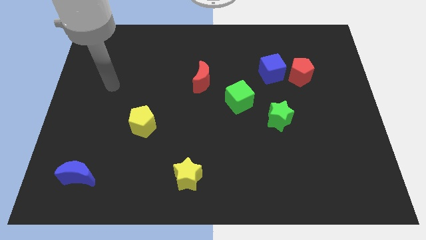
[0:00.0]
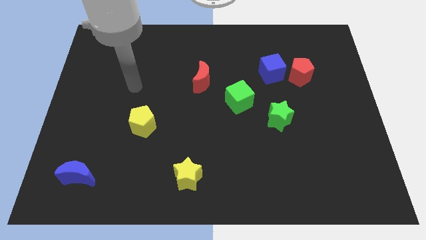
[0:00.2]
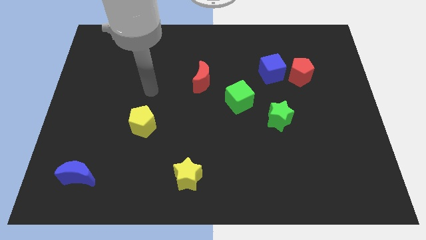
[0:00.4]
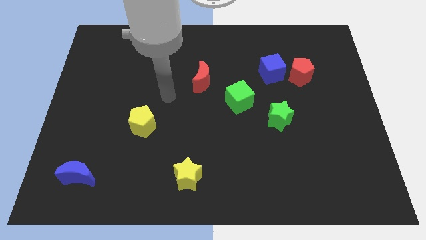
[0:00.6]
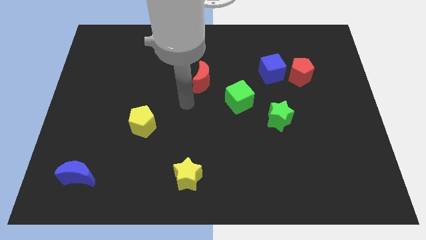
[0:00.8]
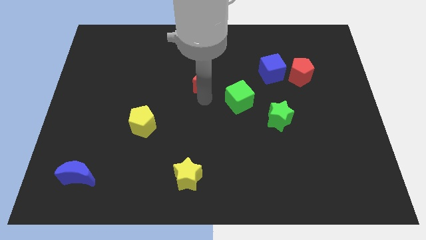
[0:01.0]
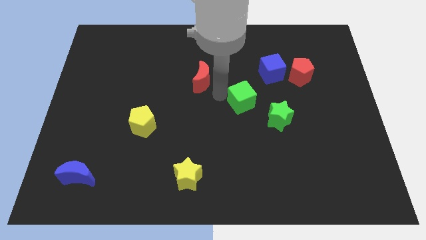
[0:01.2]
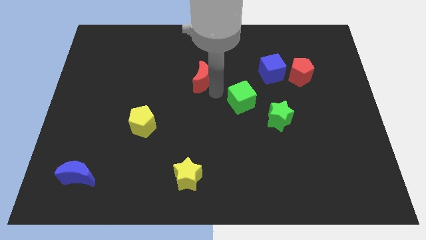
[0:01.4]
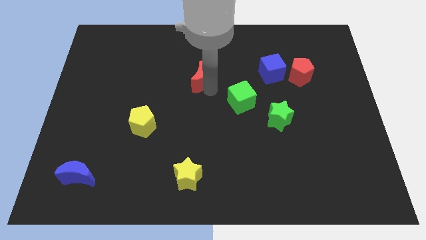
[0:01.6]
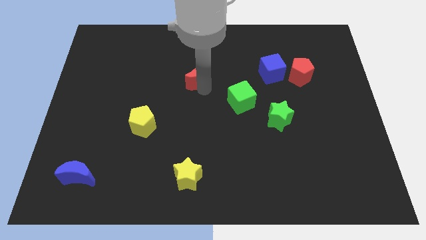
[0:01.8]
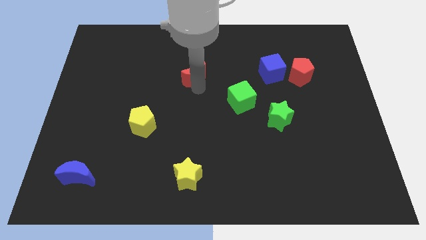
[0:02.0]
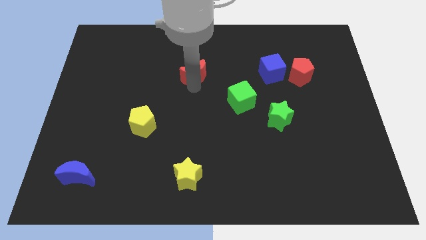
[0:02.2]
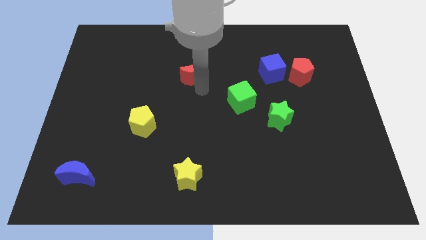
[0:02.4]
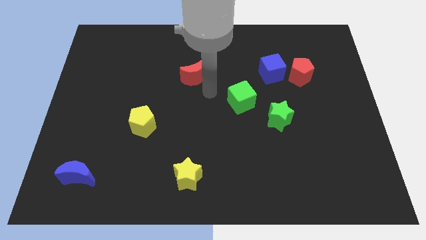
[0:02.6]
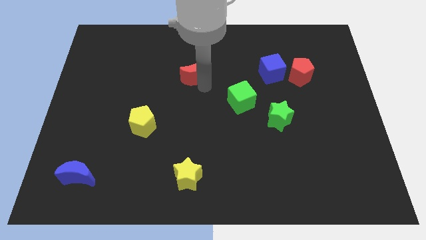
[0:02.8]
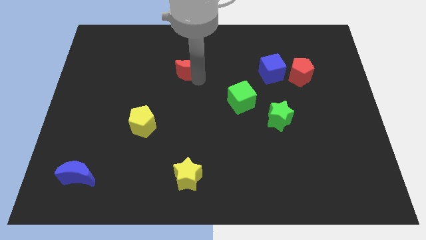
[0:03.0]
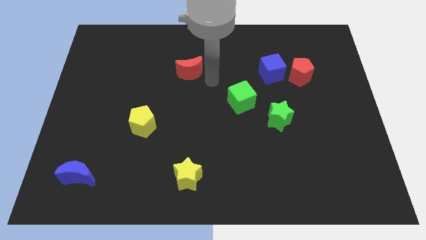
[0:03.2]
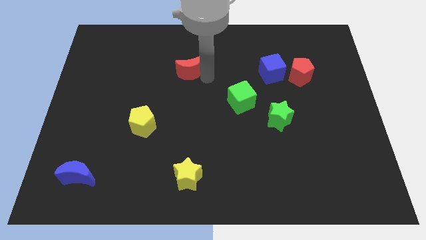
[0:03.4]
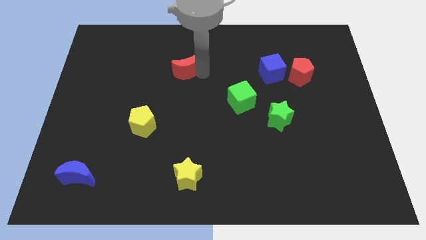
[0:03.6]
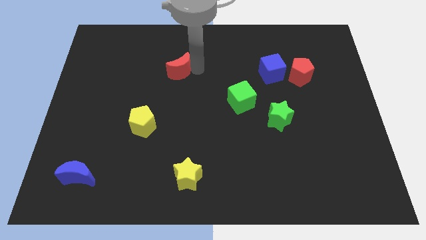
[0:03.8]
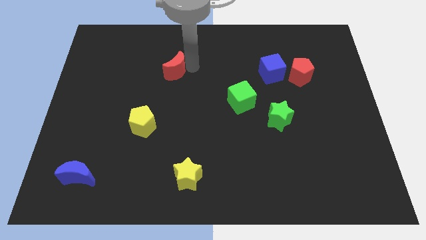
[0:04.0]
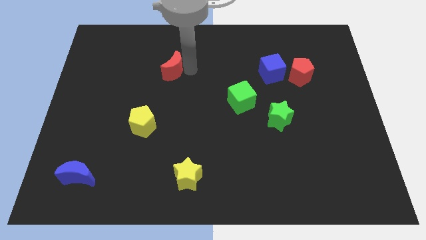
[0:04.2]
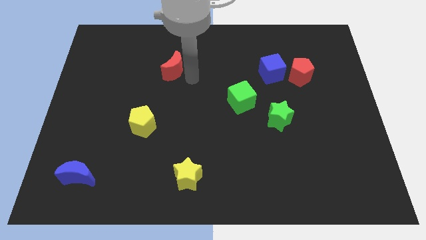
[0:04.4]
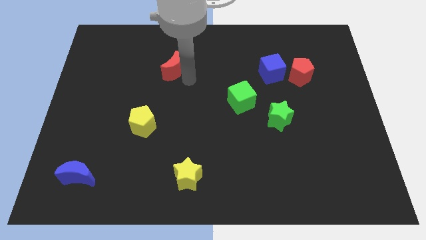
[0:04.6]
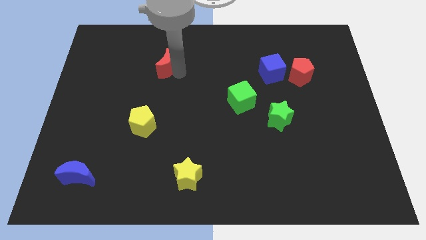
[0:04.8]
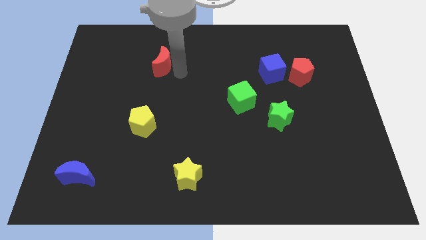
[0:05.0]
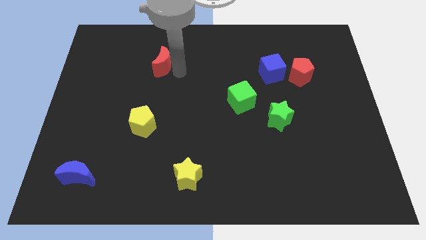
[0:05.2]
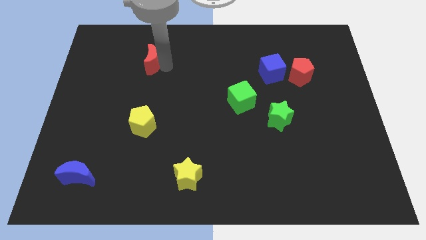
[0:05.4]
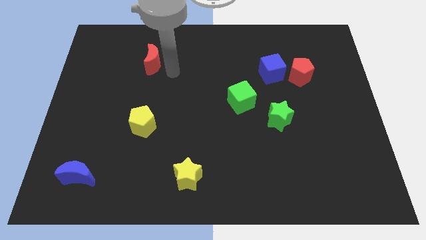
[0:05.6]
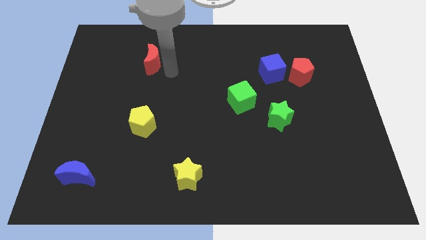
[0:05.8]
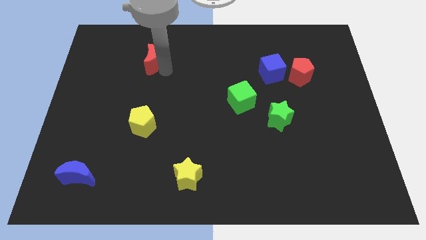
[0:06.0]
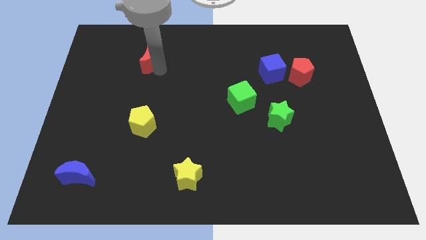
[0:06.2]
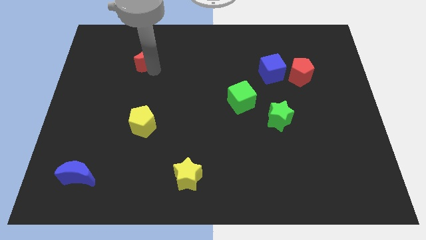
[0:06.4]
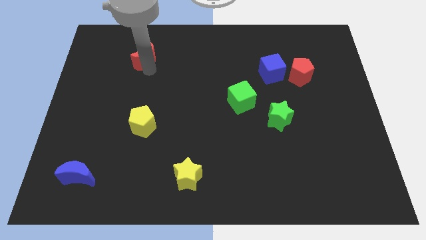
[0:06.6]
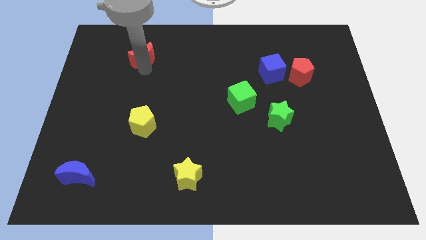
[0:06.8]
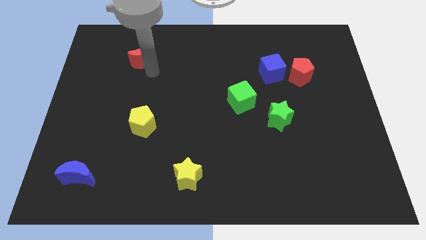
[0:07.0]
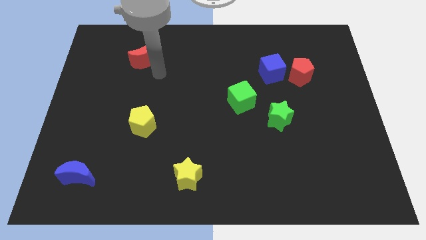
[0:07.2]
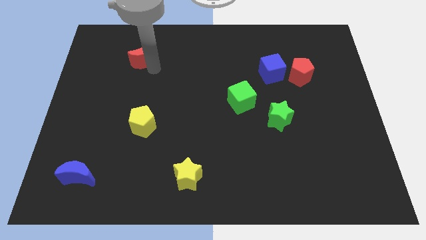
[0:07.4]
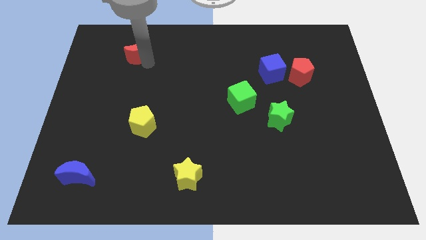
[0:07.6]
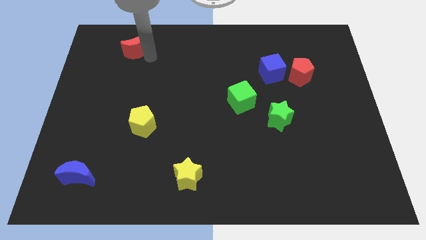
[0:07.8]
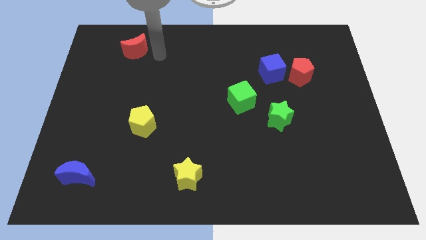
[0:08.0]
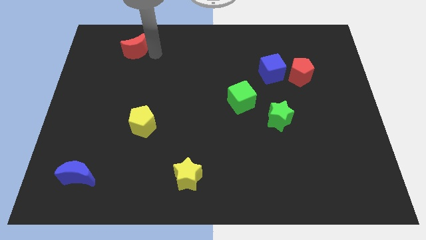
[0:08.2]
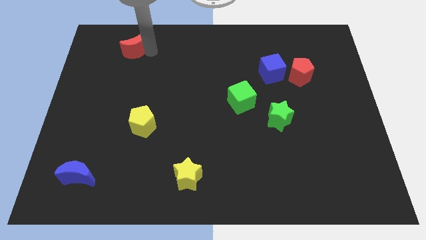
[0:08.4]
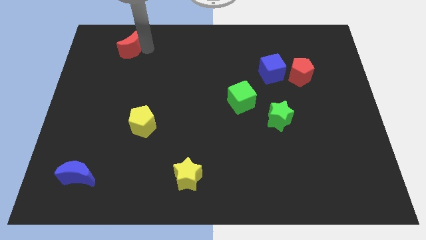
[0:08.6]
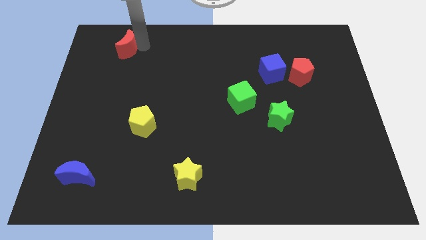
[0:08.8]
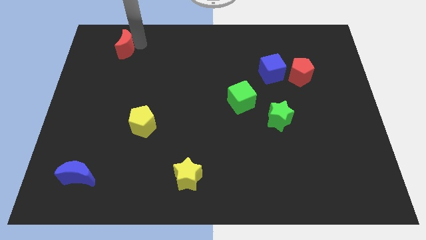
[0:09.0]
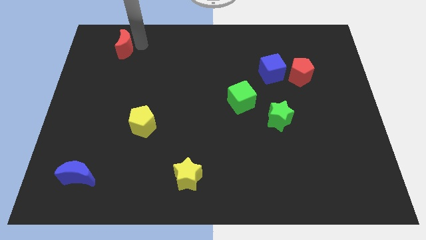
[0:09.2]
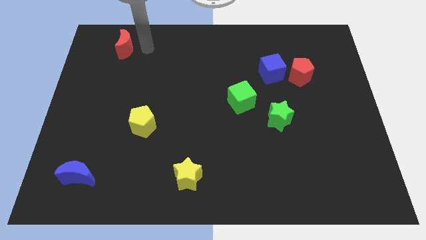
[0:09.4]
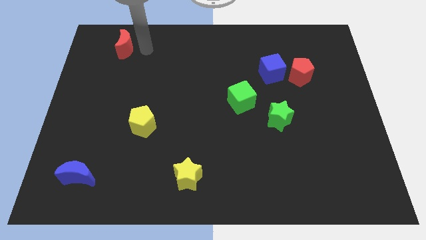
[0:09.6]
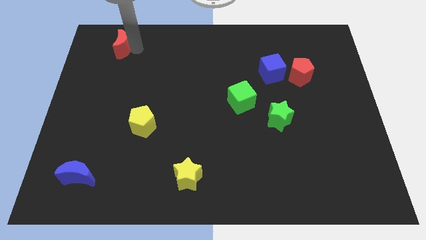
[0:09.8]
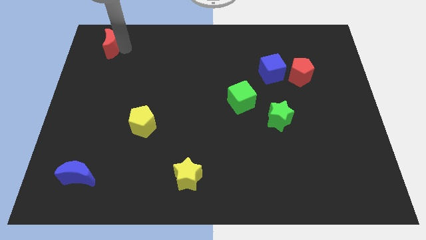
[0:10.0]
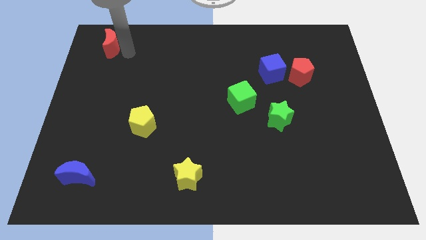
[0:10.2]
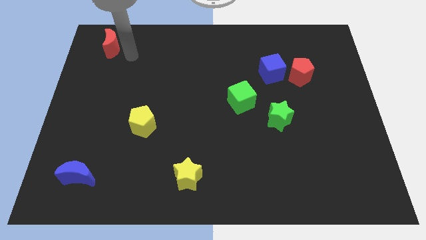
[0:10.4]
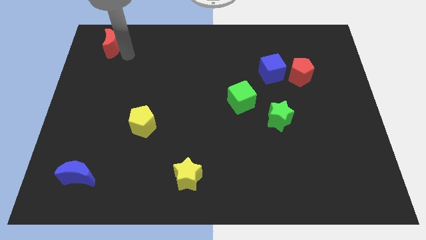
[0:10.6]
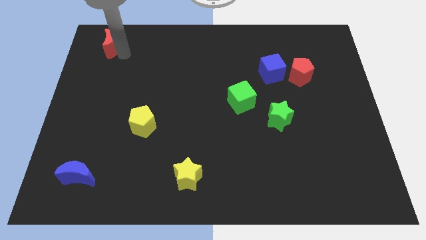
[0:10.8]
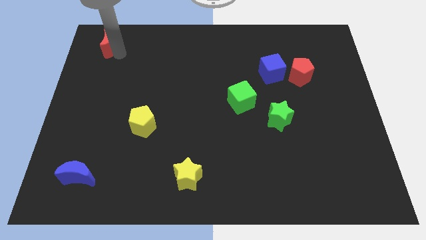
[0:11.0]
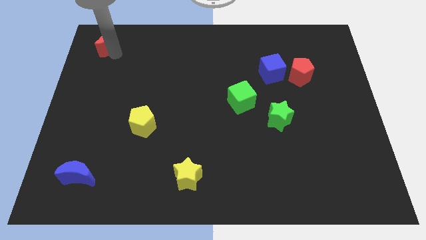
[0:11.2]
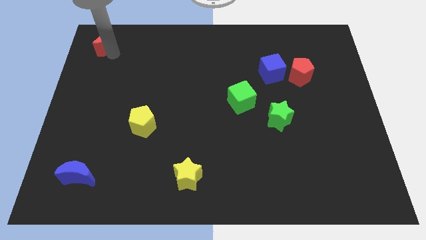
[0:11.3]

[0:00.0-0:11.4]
put the red moon to the top left of the board

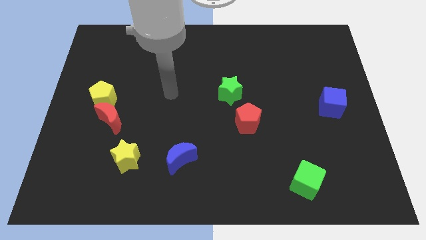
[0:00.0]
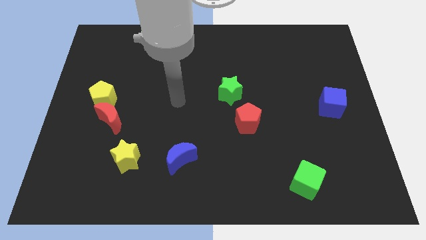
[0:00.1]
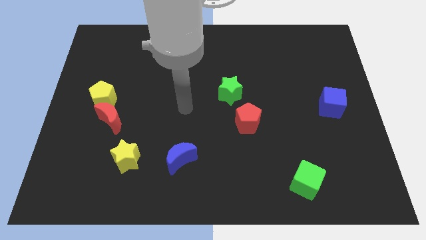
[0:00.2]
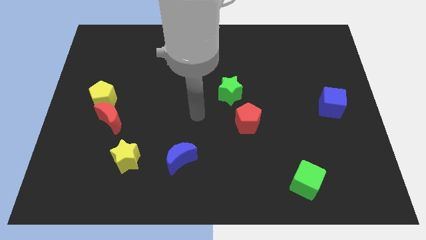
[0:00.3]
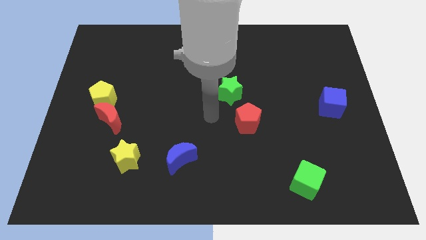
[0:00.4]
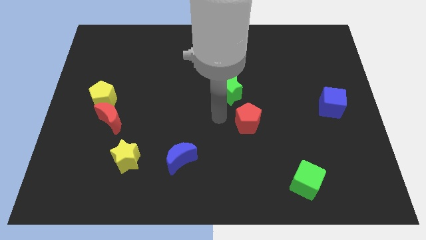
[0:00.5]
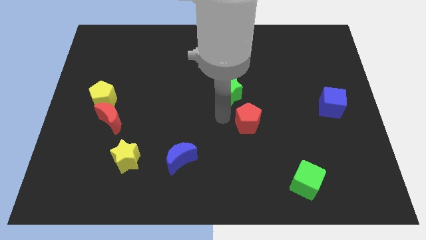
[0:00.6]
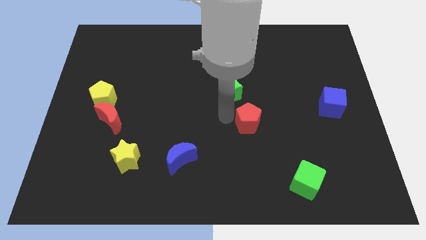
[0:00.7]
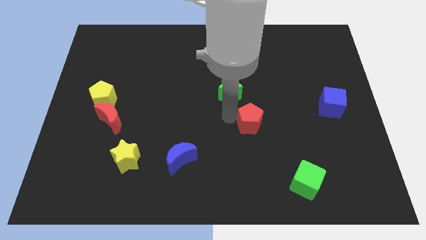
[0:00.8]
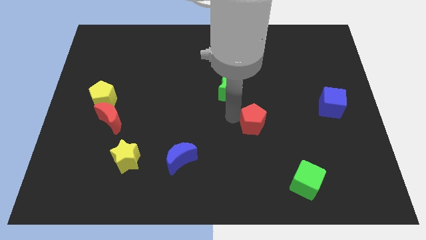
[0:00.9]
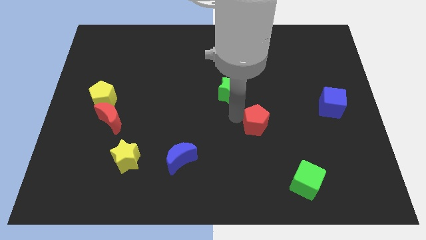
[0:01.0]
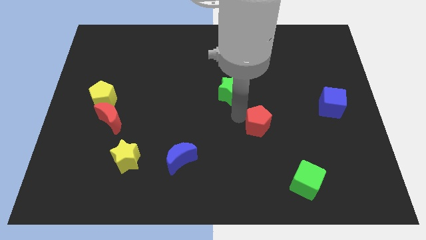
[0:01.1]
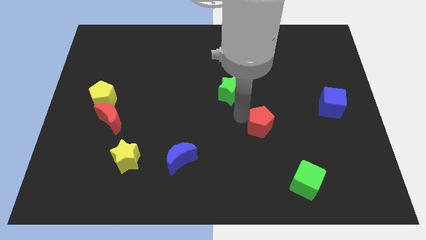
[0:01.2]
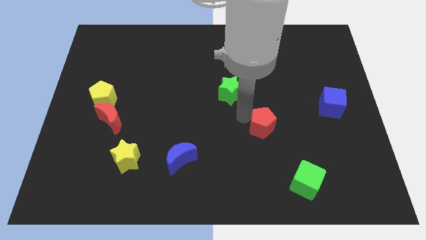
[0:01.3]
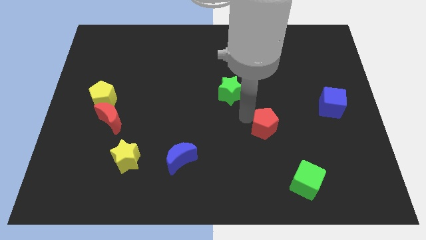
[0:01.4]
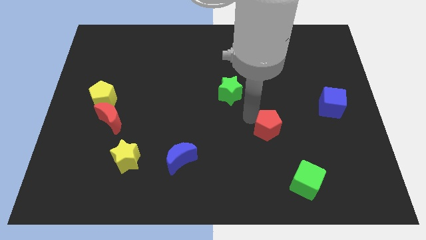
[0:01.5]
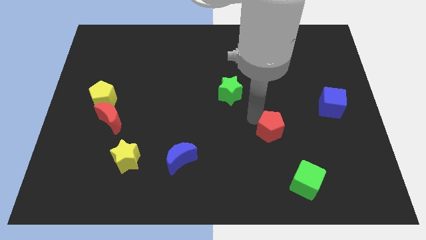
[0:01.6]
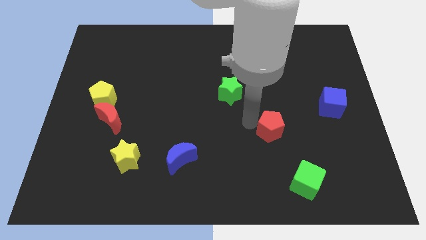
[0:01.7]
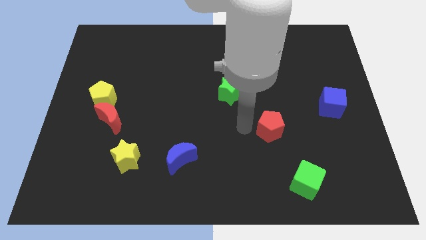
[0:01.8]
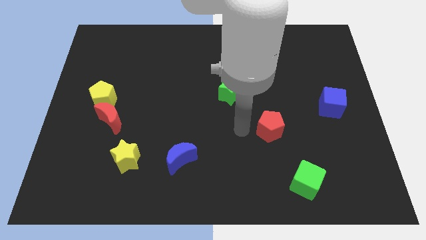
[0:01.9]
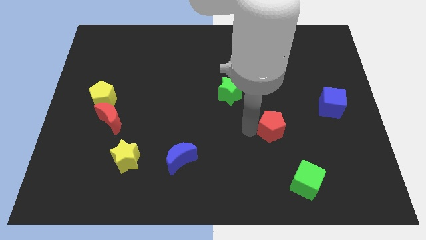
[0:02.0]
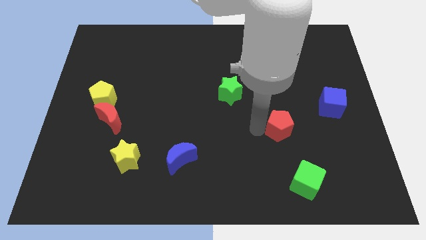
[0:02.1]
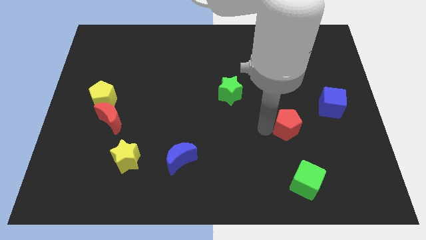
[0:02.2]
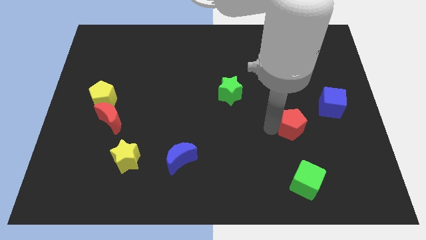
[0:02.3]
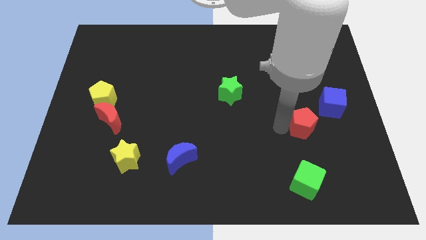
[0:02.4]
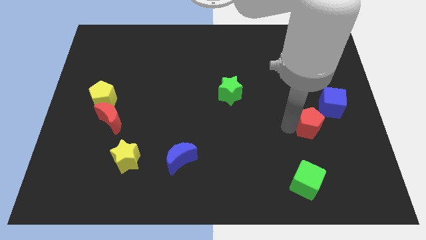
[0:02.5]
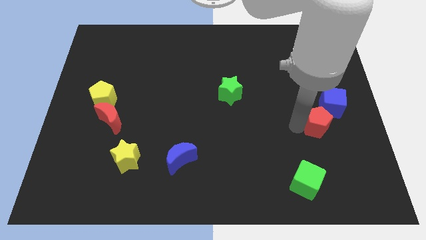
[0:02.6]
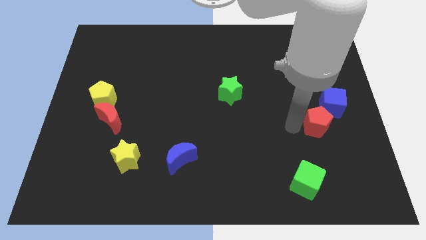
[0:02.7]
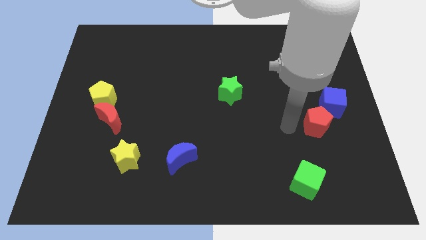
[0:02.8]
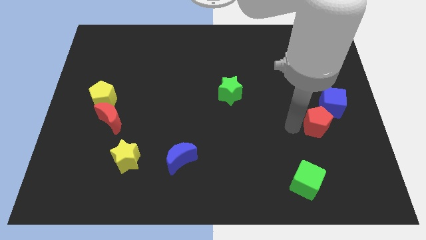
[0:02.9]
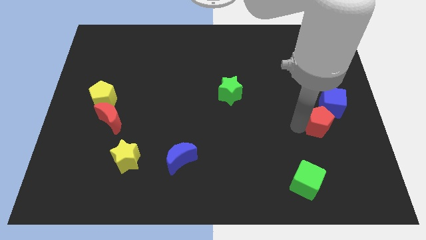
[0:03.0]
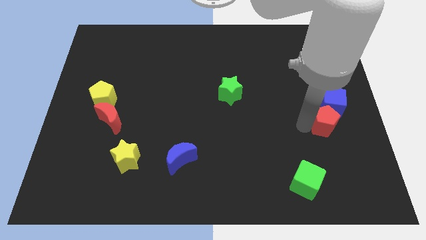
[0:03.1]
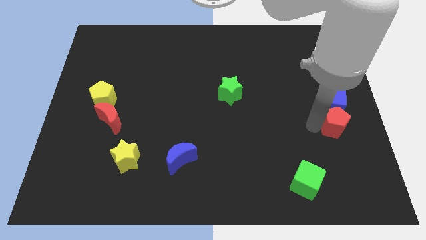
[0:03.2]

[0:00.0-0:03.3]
move the red pentagon to the right side
